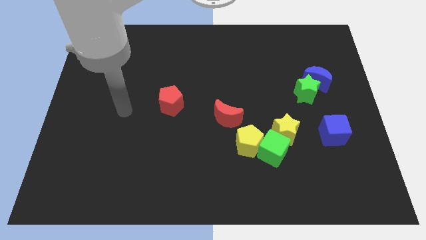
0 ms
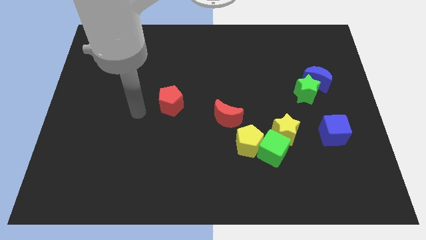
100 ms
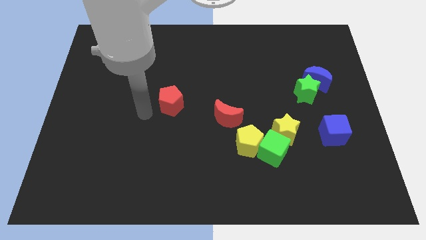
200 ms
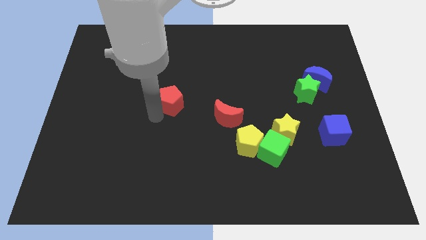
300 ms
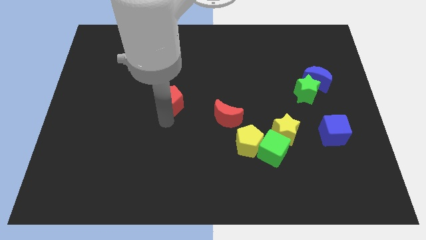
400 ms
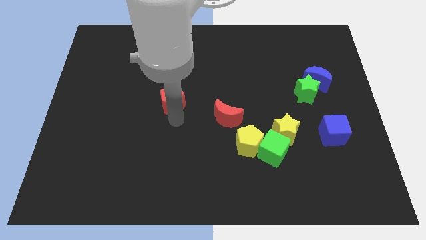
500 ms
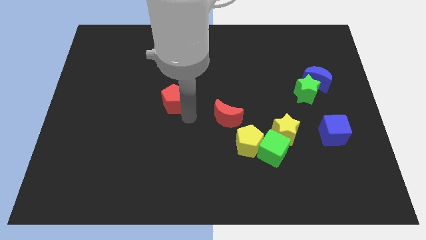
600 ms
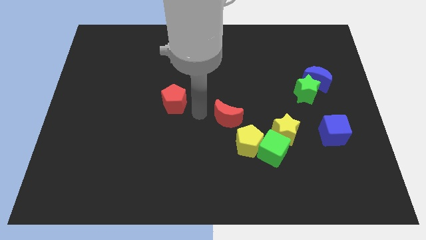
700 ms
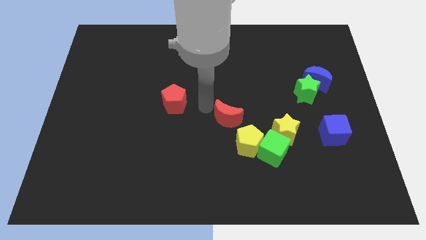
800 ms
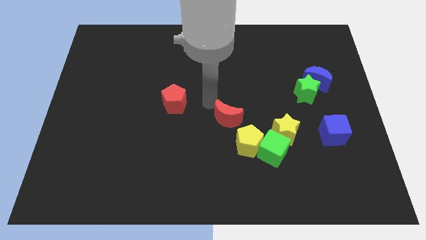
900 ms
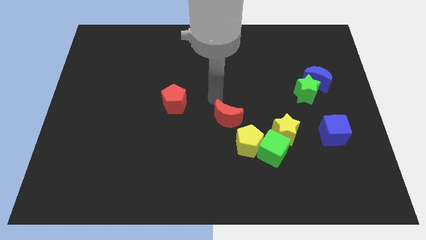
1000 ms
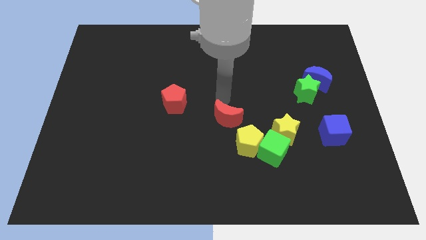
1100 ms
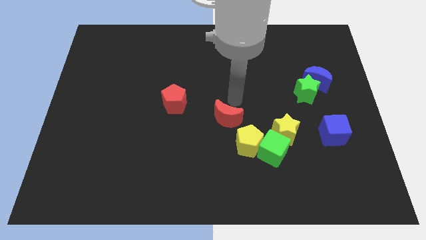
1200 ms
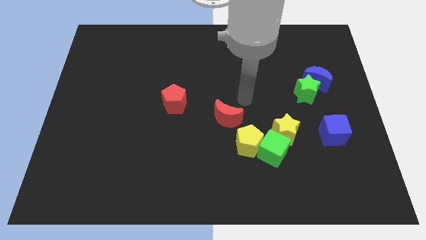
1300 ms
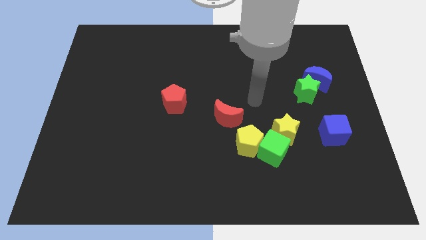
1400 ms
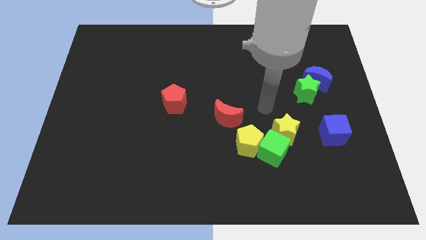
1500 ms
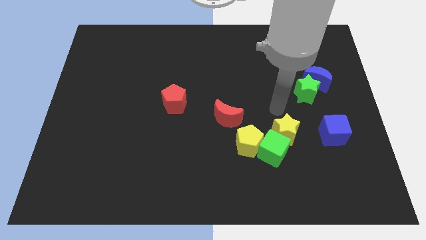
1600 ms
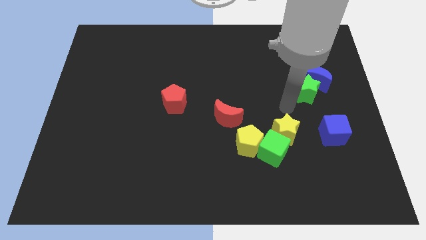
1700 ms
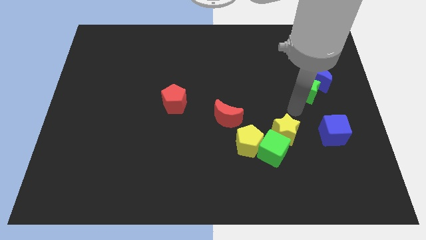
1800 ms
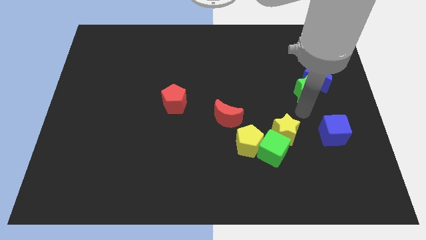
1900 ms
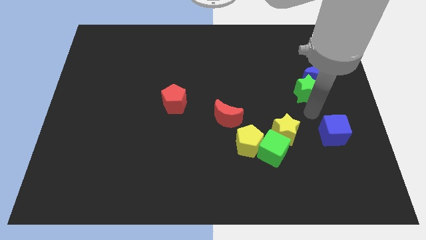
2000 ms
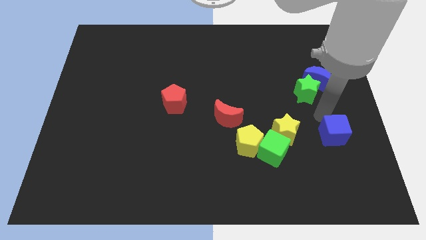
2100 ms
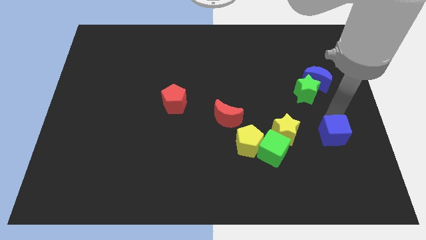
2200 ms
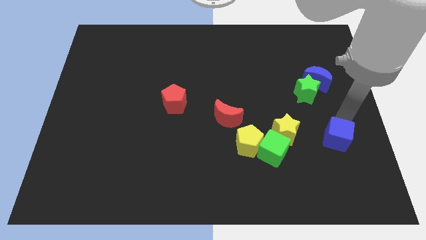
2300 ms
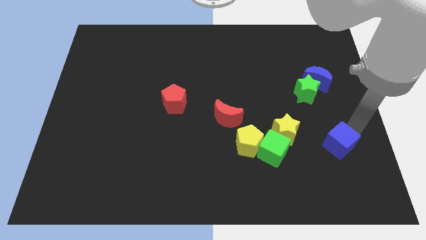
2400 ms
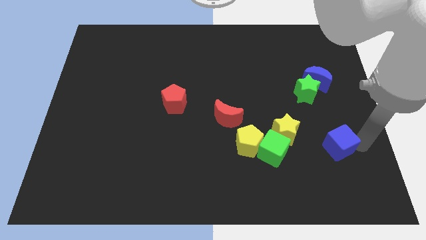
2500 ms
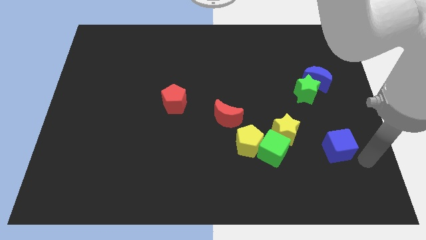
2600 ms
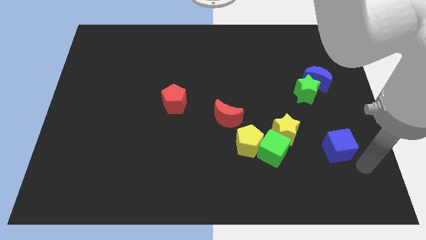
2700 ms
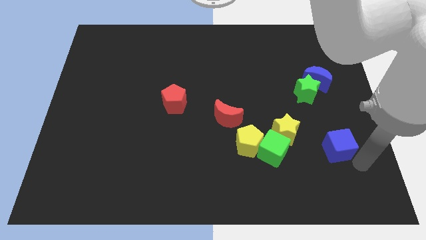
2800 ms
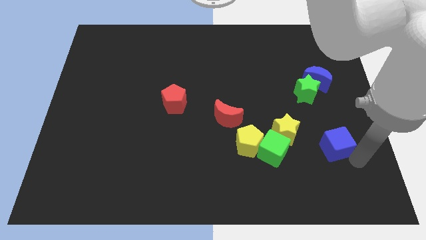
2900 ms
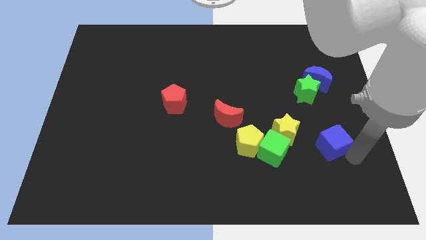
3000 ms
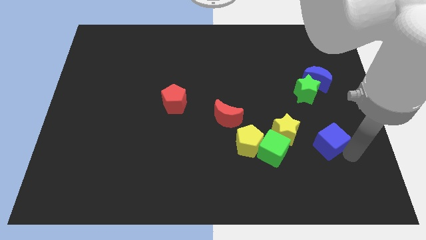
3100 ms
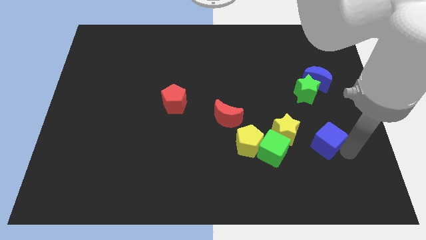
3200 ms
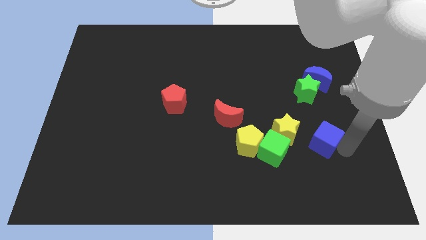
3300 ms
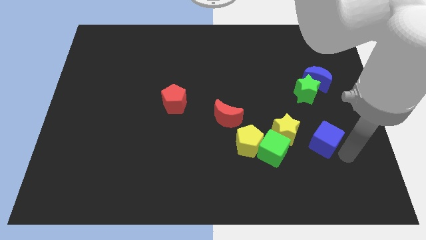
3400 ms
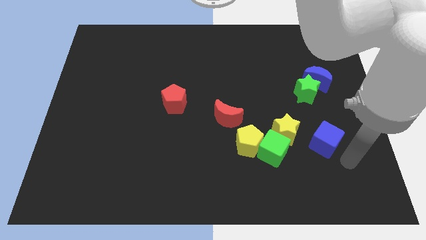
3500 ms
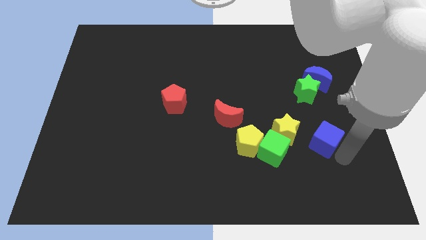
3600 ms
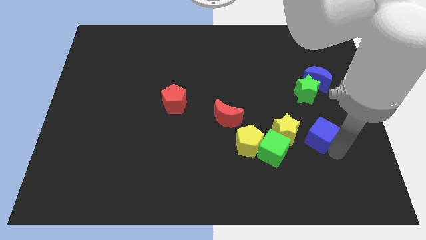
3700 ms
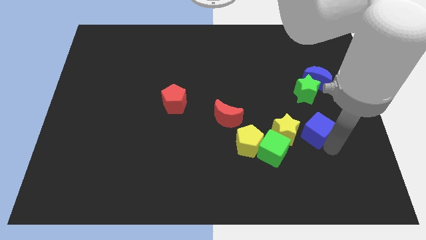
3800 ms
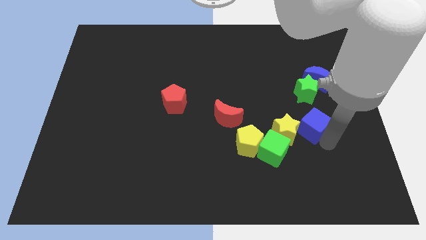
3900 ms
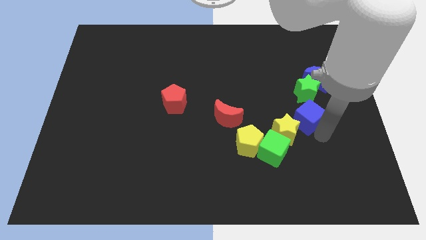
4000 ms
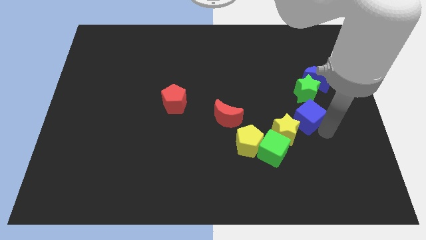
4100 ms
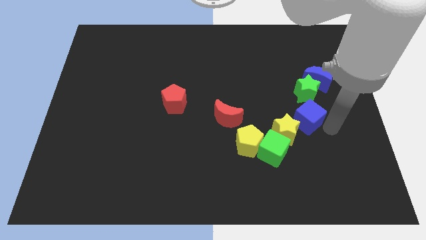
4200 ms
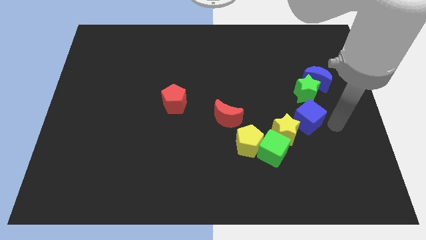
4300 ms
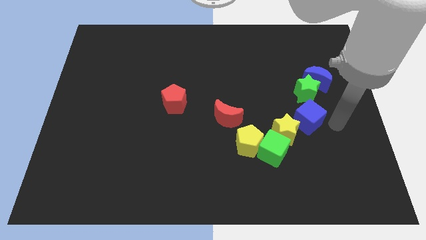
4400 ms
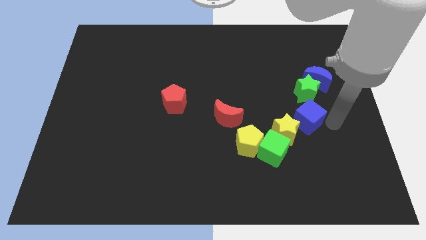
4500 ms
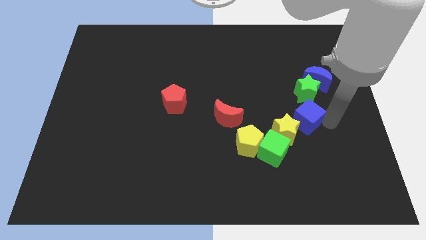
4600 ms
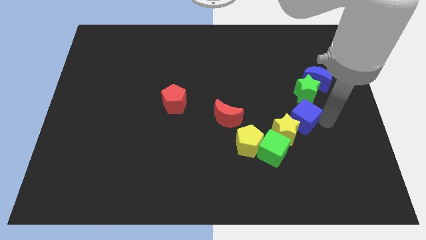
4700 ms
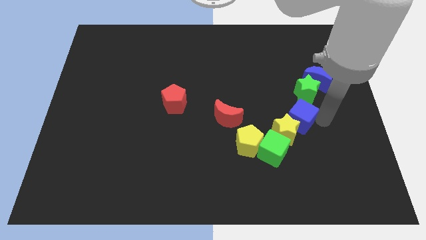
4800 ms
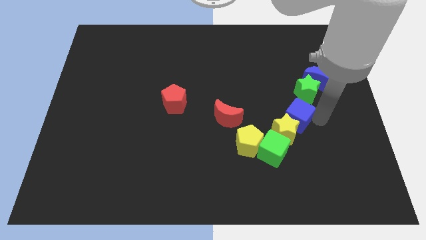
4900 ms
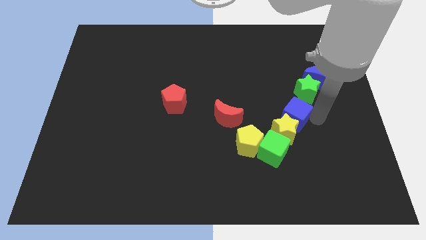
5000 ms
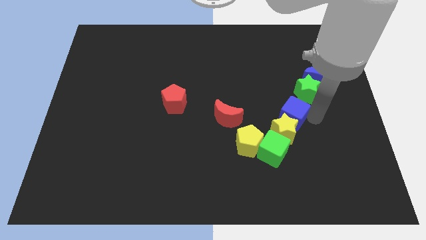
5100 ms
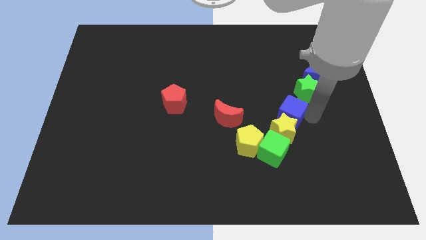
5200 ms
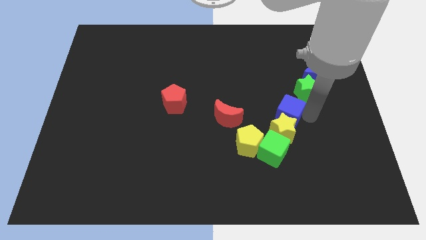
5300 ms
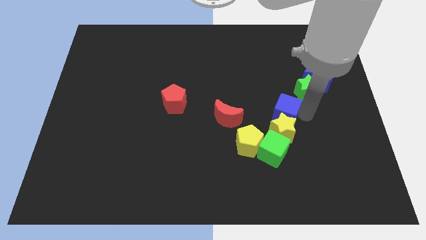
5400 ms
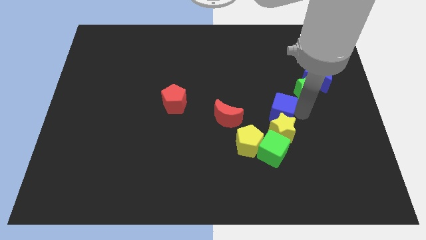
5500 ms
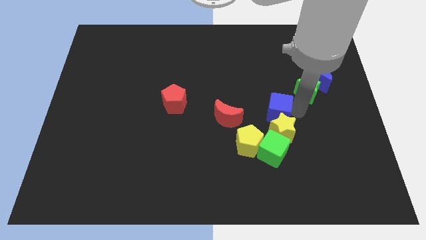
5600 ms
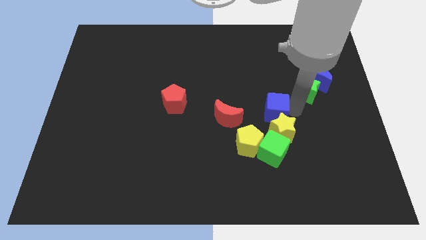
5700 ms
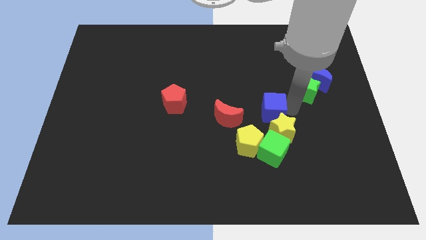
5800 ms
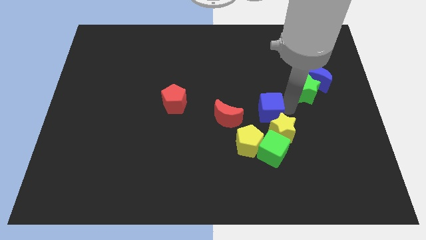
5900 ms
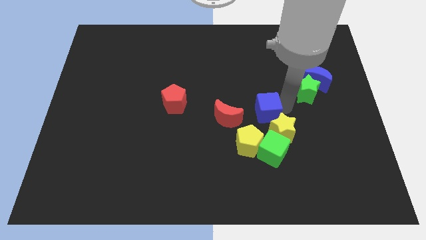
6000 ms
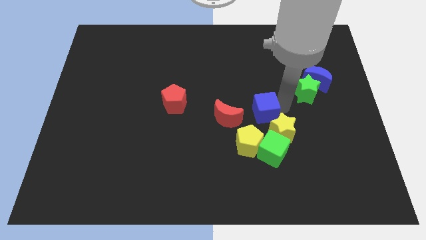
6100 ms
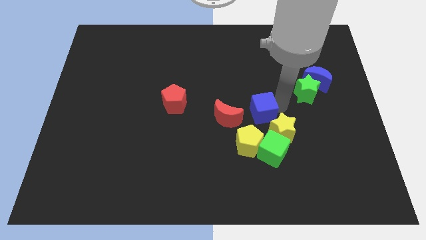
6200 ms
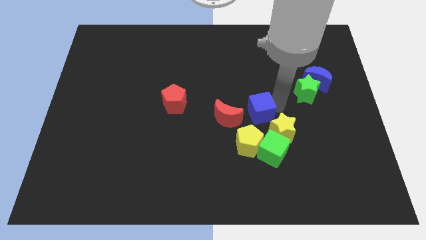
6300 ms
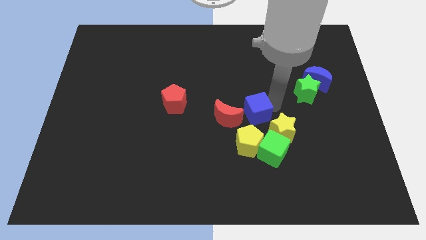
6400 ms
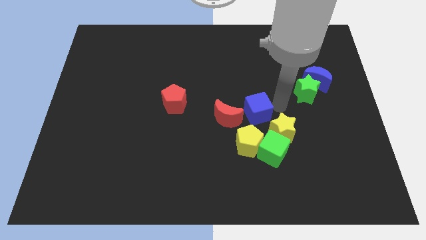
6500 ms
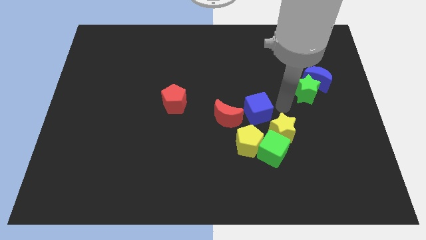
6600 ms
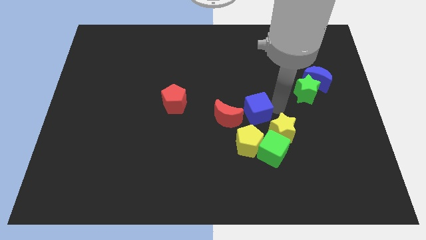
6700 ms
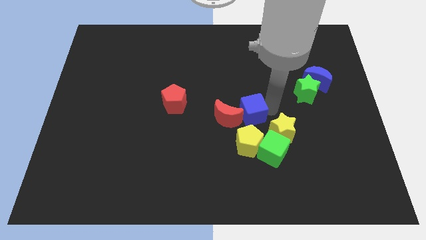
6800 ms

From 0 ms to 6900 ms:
slide the blue cube towards the red moon
